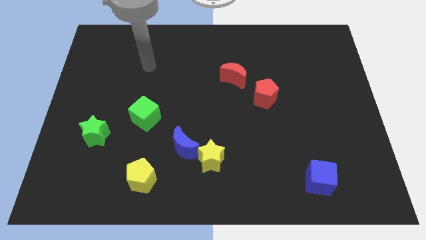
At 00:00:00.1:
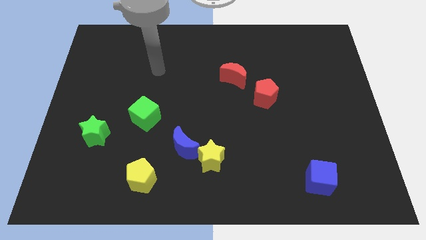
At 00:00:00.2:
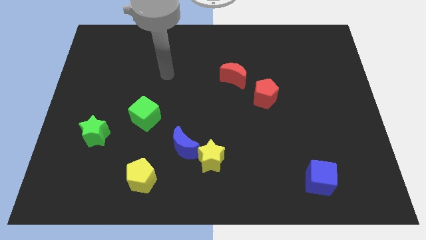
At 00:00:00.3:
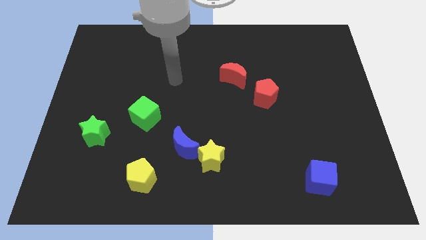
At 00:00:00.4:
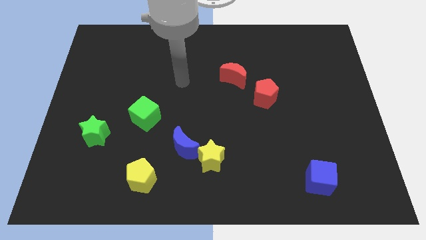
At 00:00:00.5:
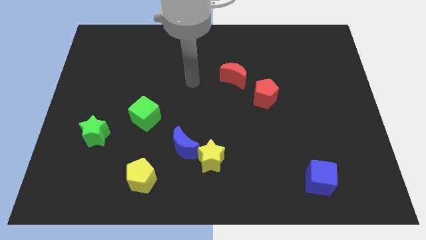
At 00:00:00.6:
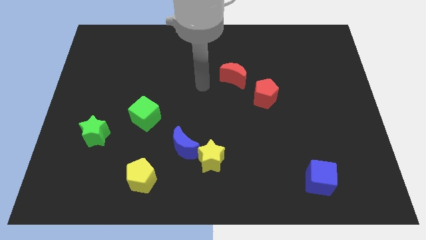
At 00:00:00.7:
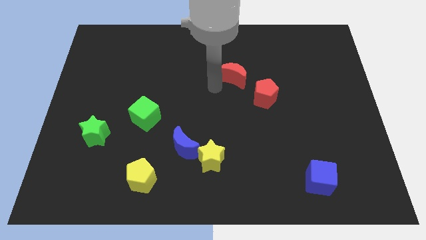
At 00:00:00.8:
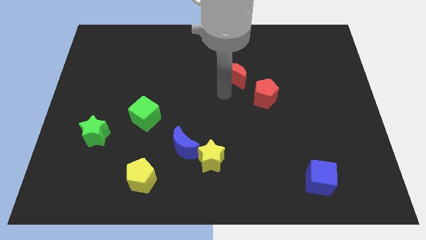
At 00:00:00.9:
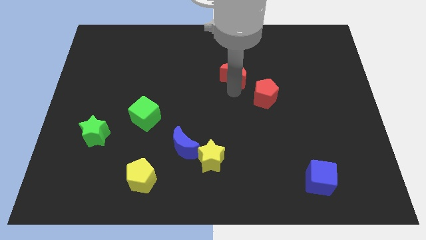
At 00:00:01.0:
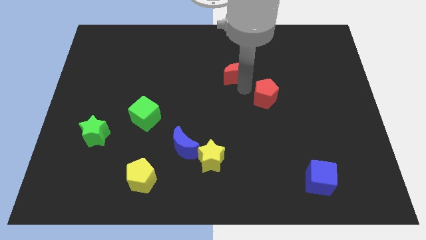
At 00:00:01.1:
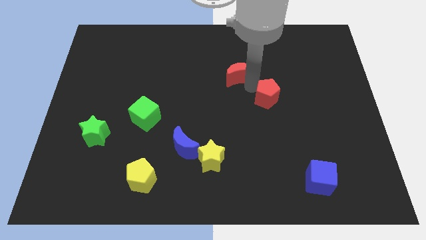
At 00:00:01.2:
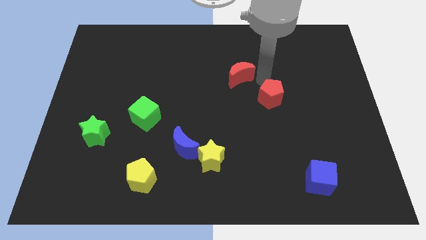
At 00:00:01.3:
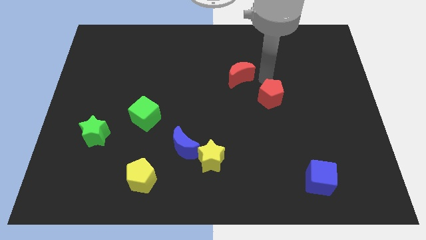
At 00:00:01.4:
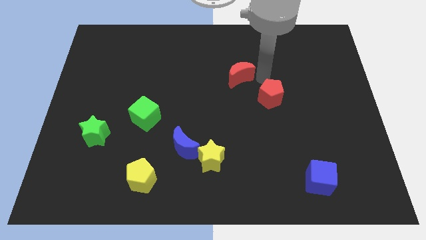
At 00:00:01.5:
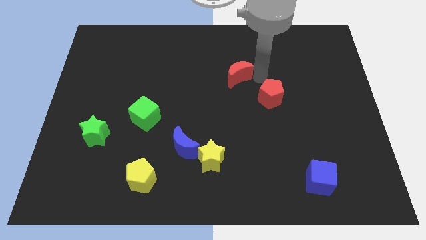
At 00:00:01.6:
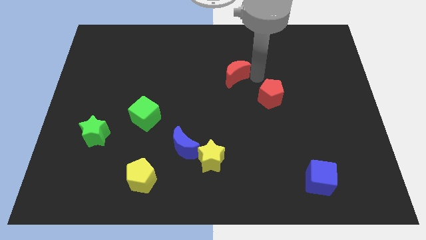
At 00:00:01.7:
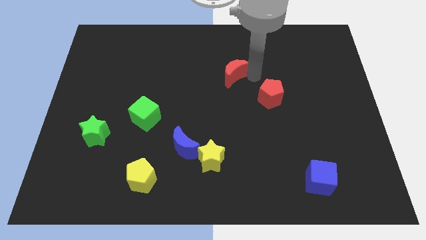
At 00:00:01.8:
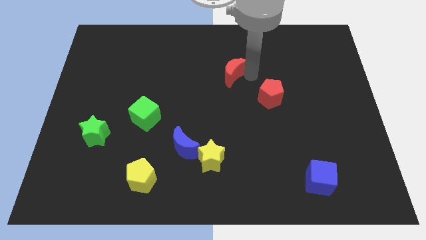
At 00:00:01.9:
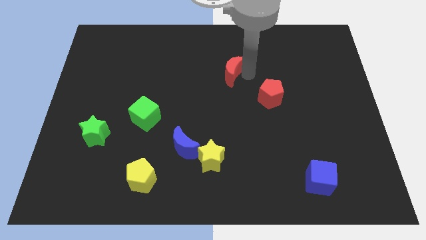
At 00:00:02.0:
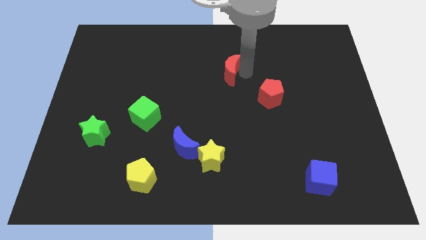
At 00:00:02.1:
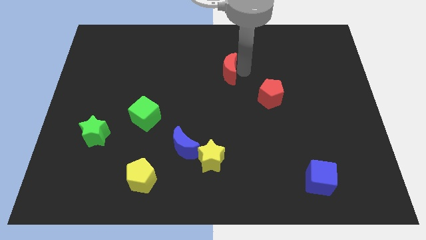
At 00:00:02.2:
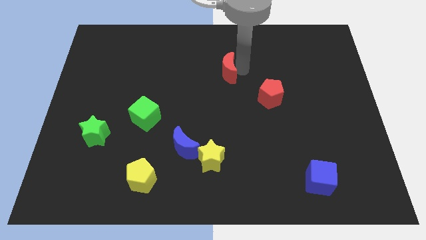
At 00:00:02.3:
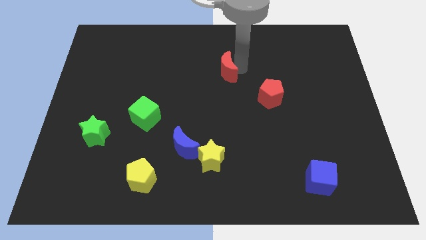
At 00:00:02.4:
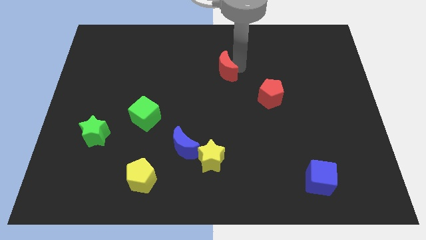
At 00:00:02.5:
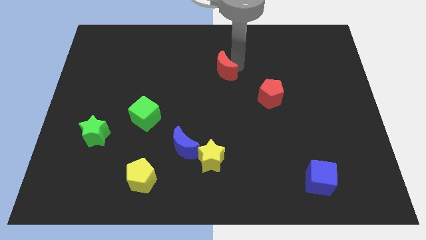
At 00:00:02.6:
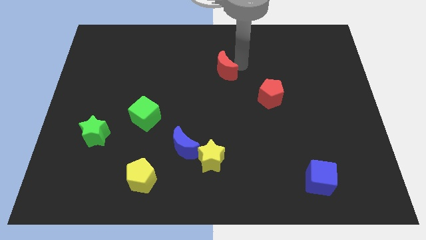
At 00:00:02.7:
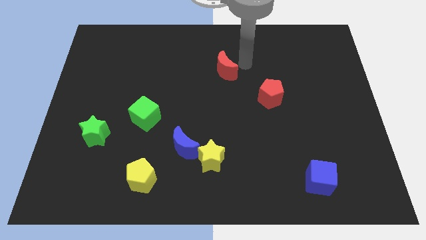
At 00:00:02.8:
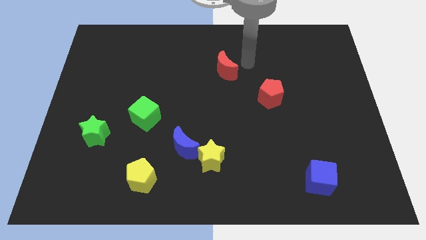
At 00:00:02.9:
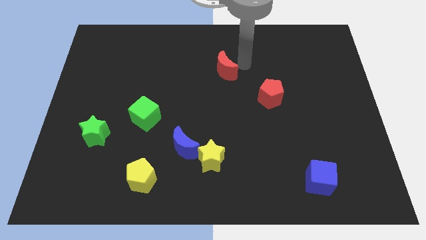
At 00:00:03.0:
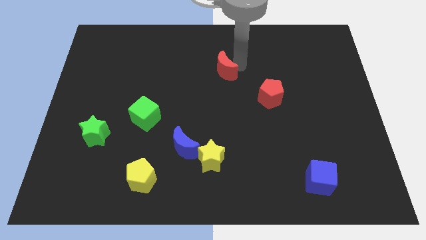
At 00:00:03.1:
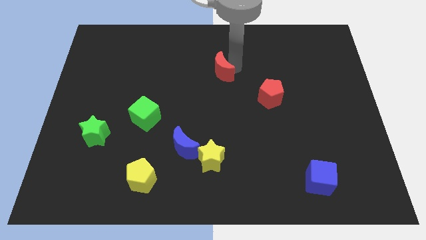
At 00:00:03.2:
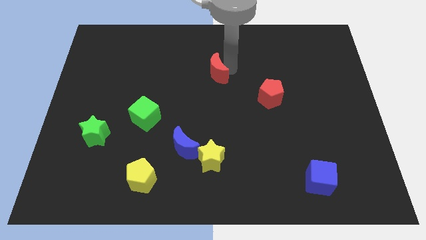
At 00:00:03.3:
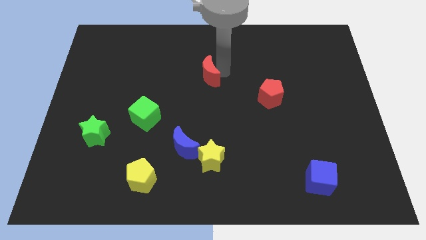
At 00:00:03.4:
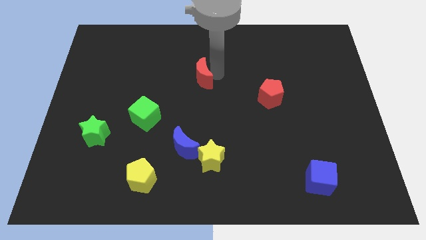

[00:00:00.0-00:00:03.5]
slide the red moon to the left a little

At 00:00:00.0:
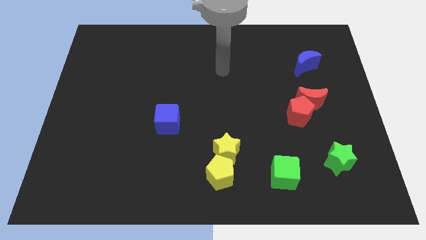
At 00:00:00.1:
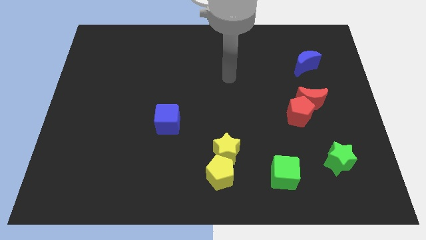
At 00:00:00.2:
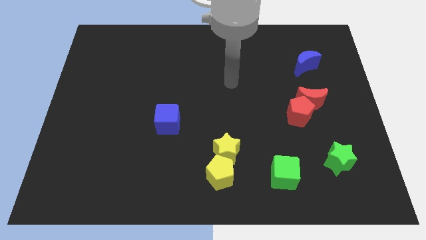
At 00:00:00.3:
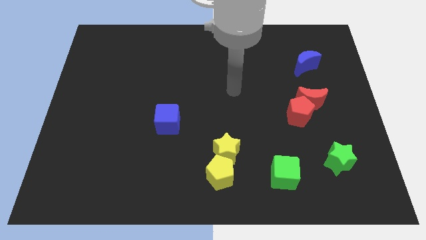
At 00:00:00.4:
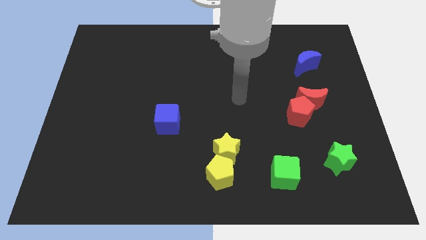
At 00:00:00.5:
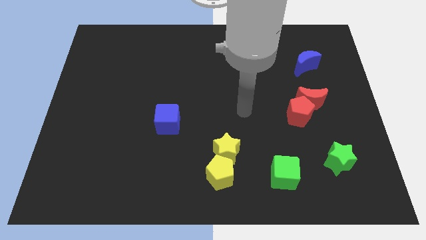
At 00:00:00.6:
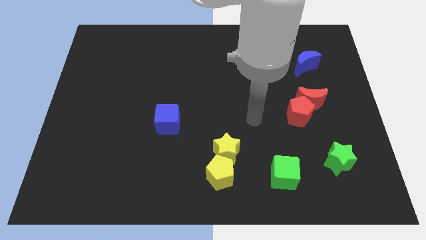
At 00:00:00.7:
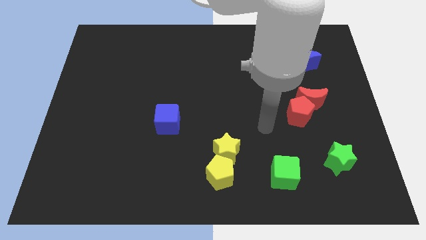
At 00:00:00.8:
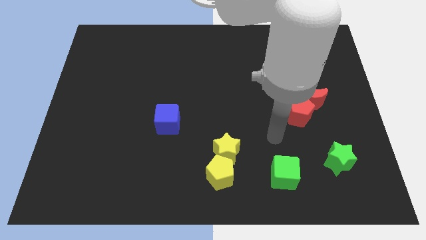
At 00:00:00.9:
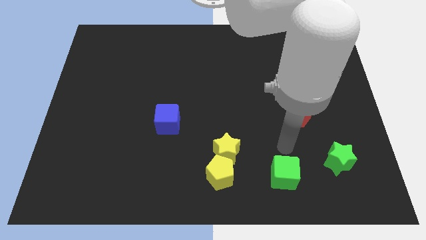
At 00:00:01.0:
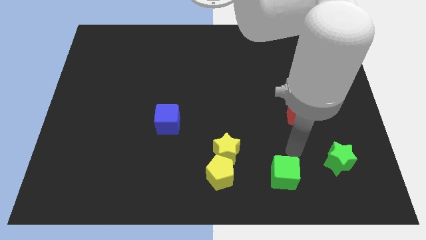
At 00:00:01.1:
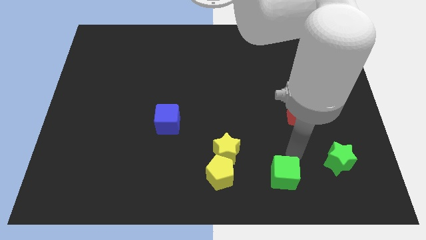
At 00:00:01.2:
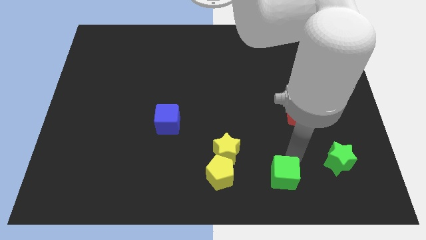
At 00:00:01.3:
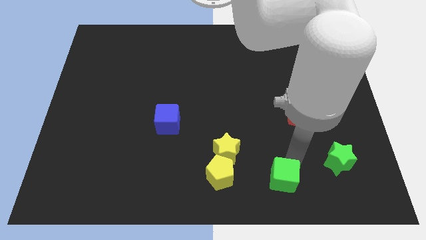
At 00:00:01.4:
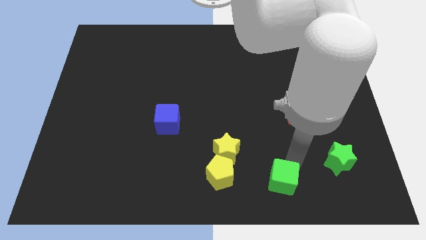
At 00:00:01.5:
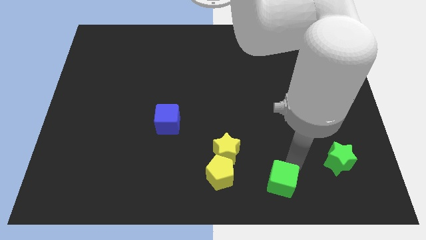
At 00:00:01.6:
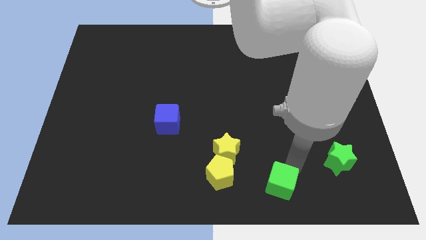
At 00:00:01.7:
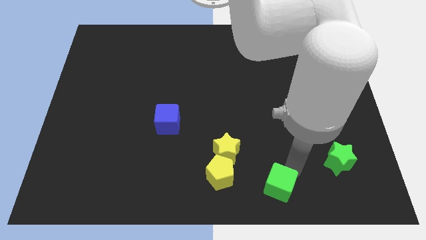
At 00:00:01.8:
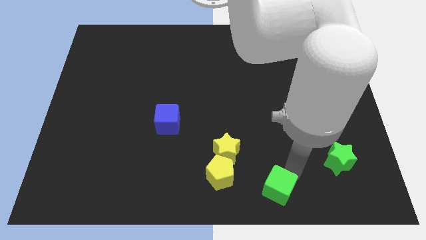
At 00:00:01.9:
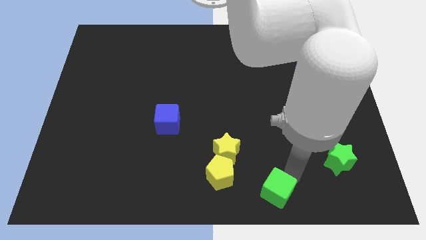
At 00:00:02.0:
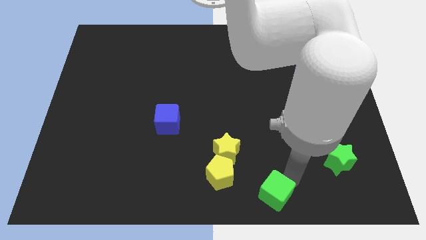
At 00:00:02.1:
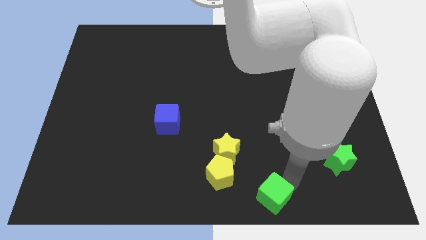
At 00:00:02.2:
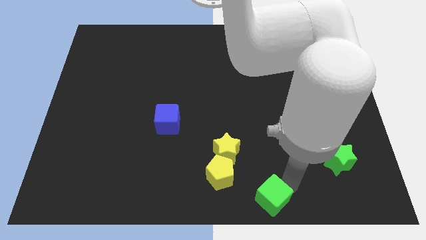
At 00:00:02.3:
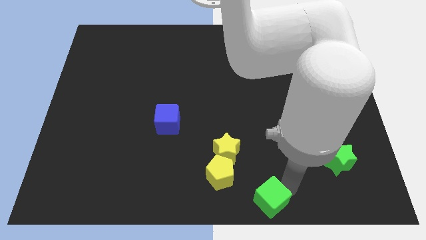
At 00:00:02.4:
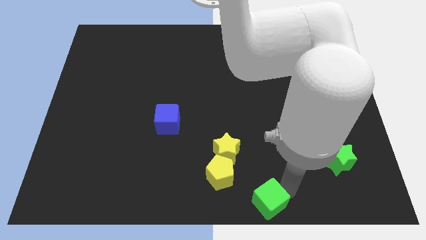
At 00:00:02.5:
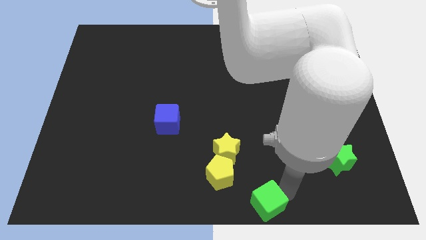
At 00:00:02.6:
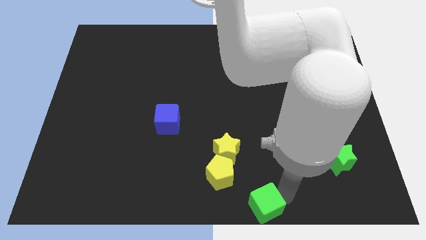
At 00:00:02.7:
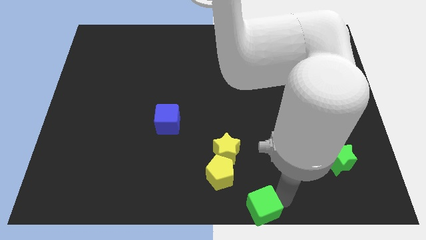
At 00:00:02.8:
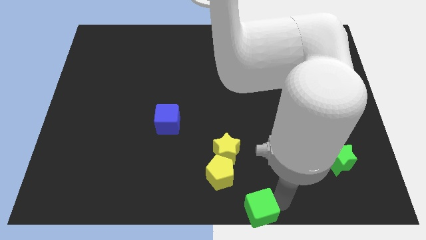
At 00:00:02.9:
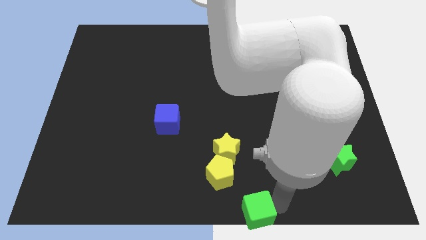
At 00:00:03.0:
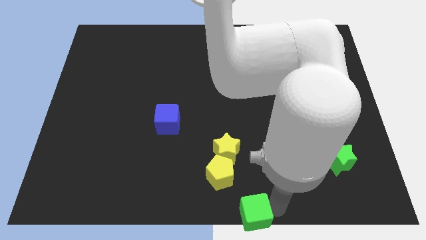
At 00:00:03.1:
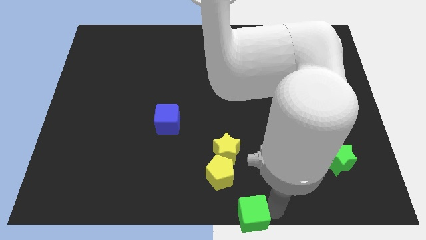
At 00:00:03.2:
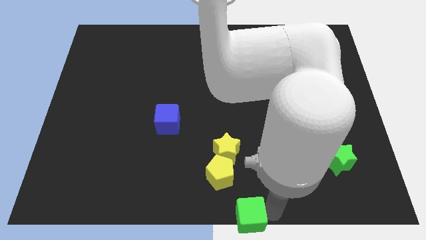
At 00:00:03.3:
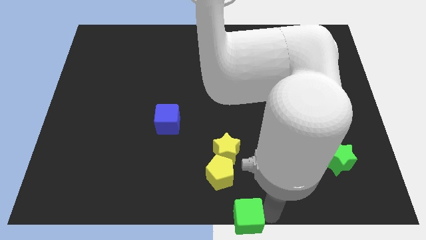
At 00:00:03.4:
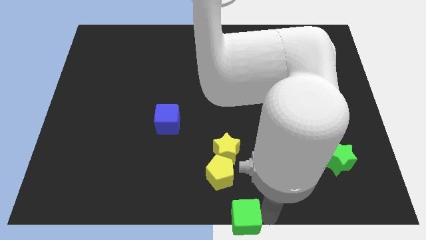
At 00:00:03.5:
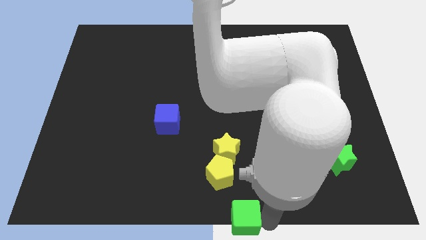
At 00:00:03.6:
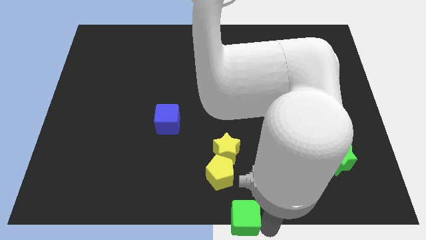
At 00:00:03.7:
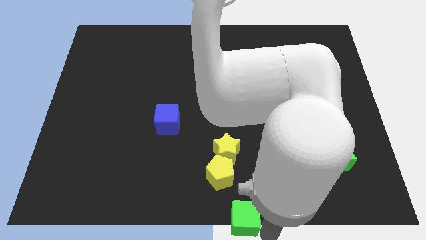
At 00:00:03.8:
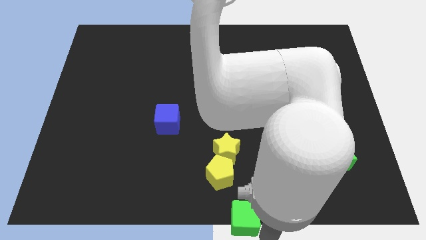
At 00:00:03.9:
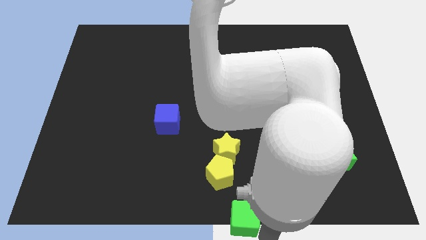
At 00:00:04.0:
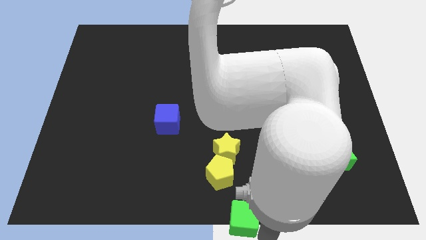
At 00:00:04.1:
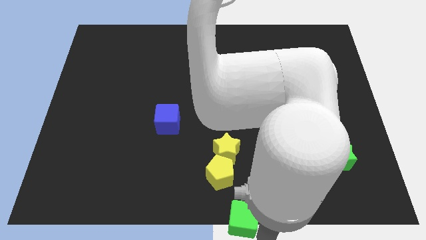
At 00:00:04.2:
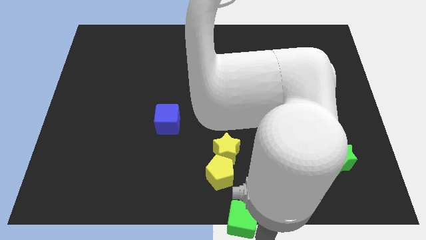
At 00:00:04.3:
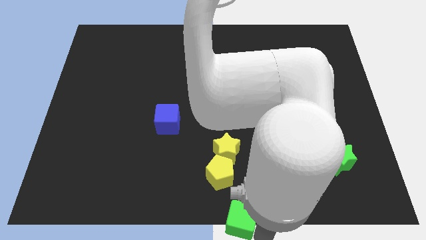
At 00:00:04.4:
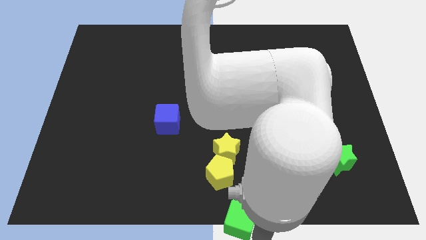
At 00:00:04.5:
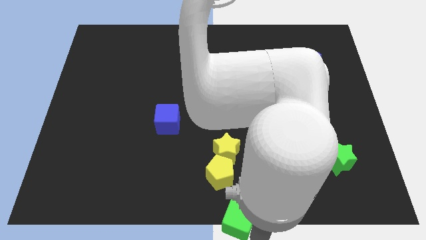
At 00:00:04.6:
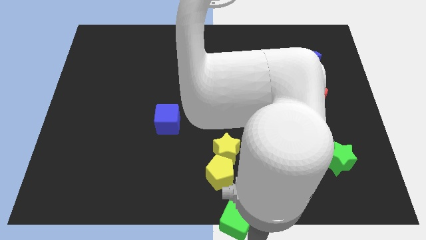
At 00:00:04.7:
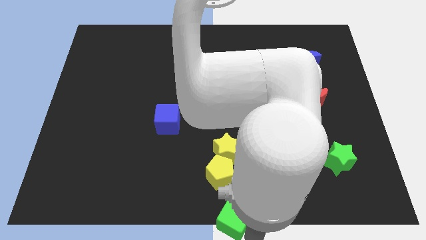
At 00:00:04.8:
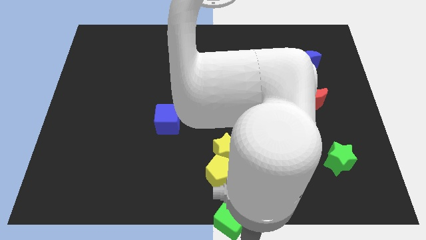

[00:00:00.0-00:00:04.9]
move the green cube left a little bit
